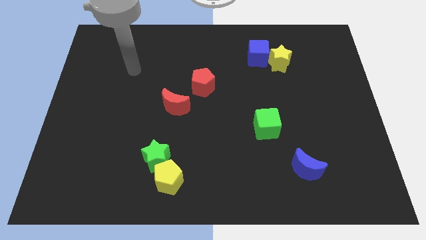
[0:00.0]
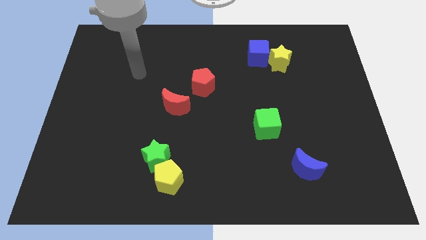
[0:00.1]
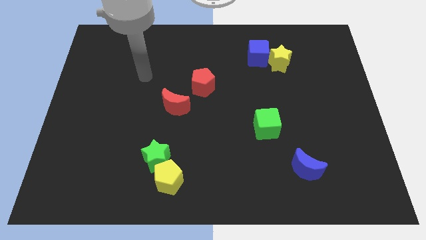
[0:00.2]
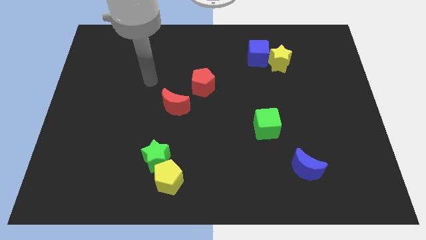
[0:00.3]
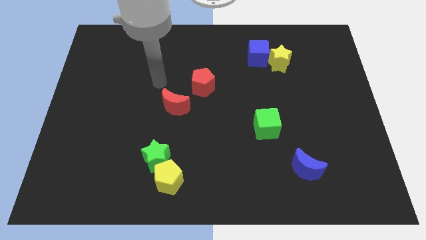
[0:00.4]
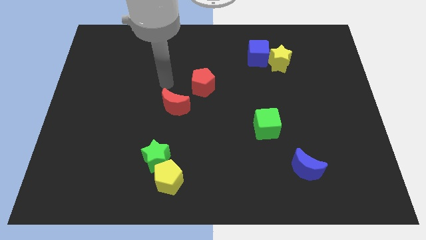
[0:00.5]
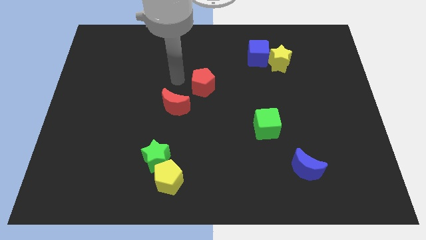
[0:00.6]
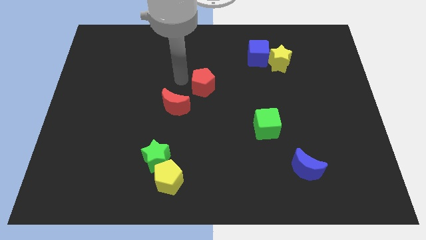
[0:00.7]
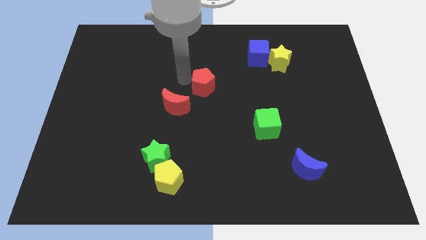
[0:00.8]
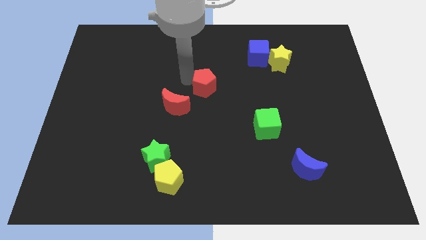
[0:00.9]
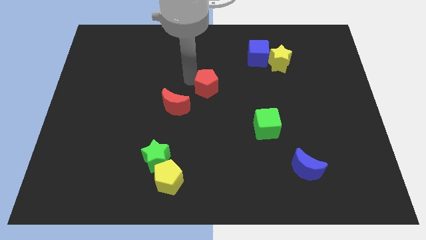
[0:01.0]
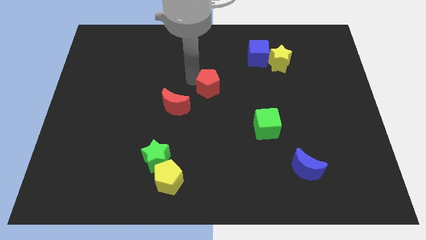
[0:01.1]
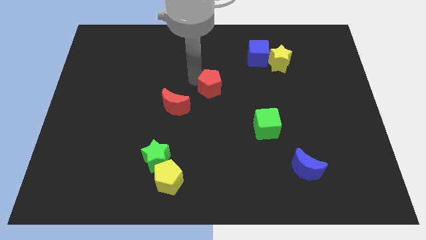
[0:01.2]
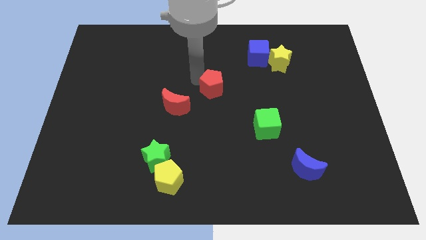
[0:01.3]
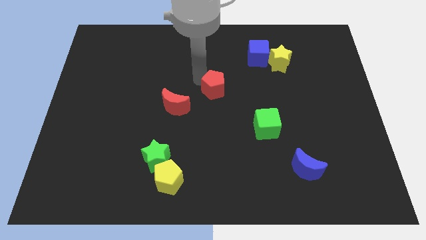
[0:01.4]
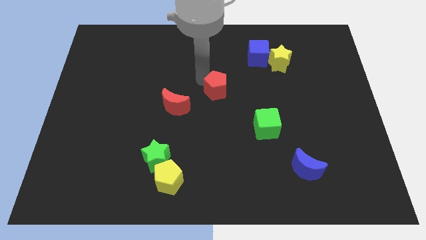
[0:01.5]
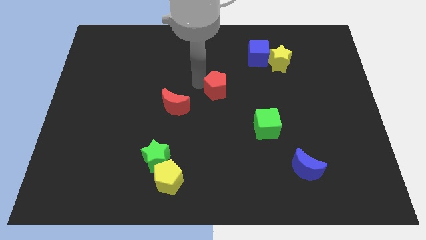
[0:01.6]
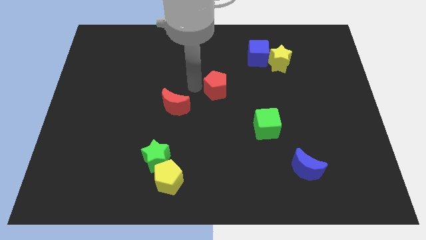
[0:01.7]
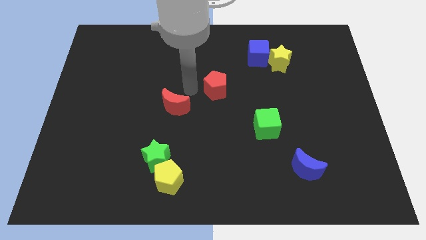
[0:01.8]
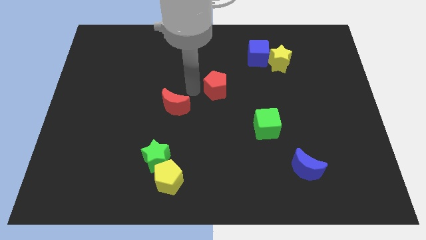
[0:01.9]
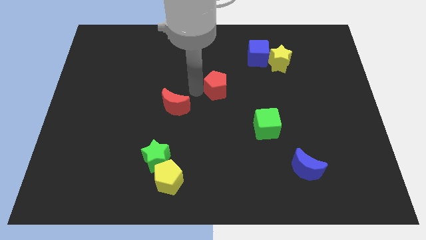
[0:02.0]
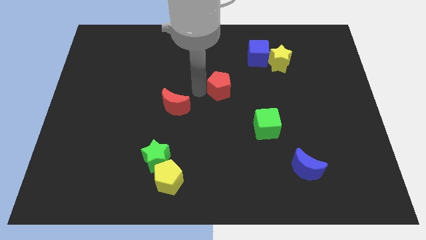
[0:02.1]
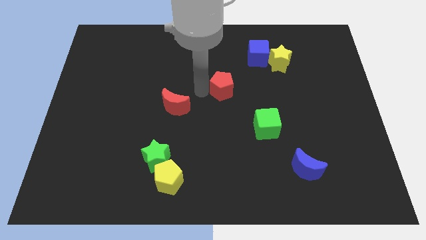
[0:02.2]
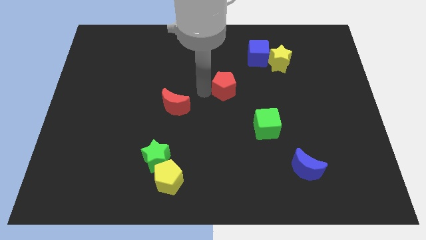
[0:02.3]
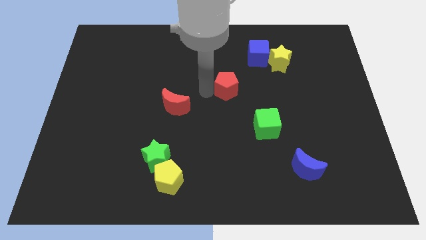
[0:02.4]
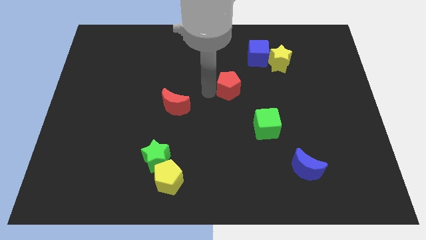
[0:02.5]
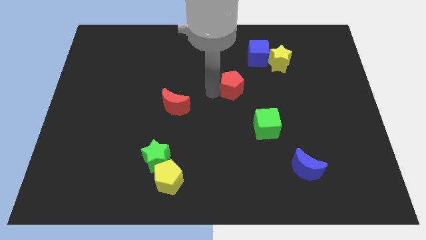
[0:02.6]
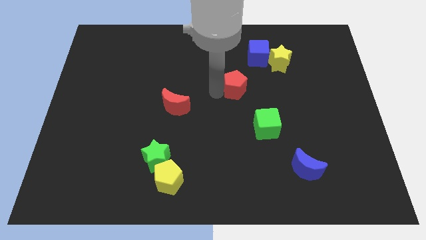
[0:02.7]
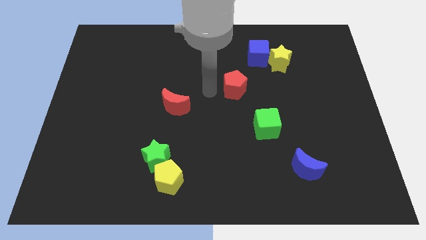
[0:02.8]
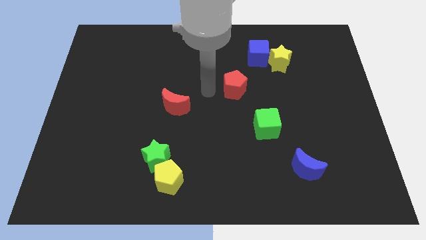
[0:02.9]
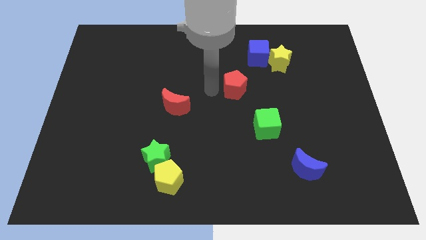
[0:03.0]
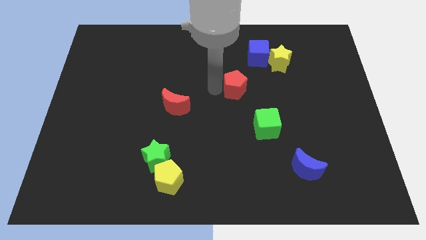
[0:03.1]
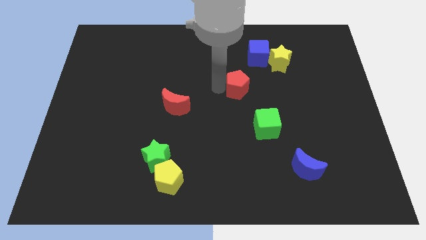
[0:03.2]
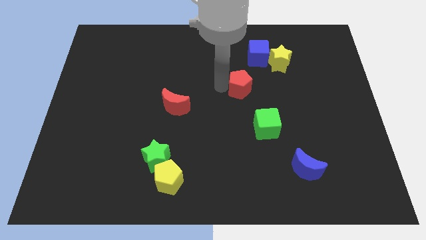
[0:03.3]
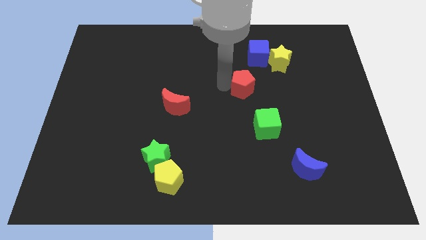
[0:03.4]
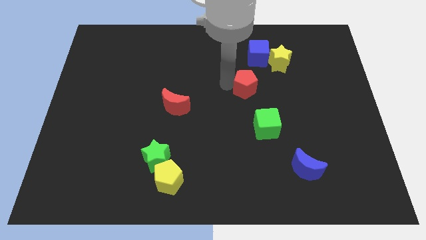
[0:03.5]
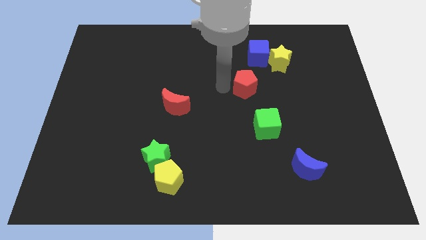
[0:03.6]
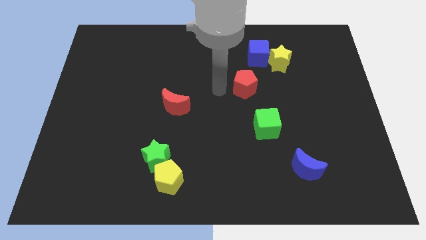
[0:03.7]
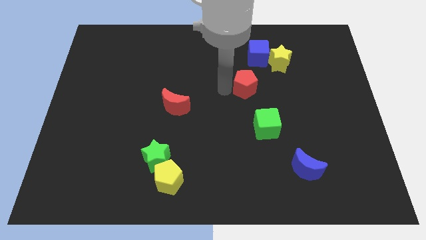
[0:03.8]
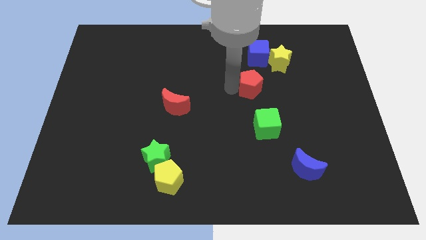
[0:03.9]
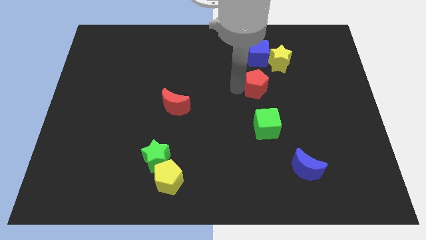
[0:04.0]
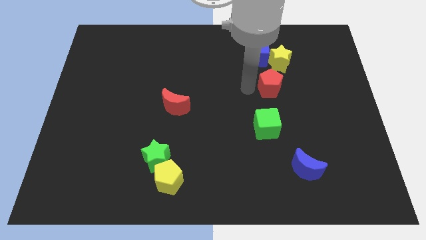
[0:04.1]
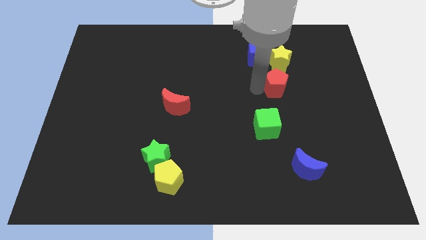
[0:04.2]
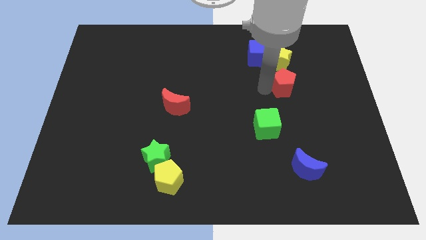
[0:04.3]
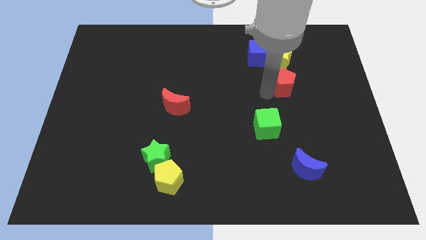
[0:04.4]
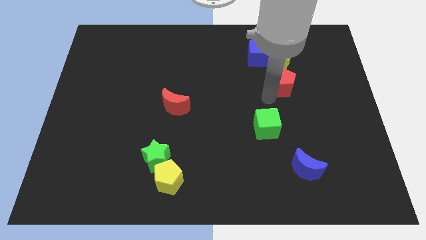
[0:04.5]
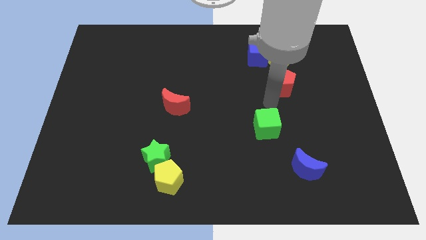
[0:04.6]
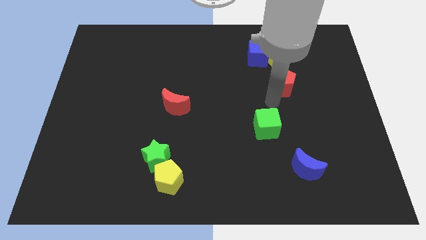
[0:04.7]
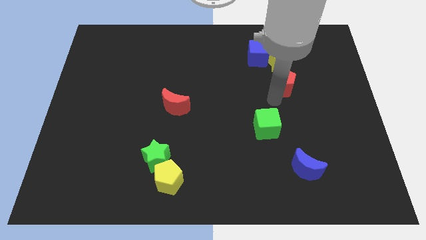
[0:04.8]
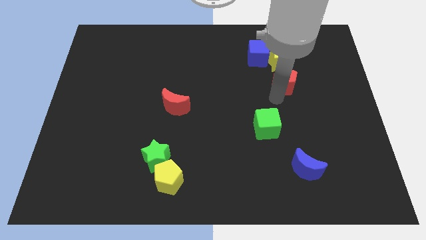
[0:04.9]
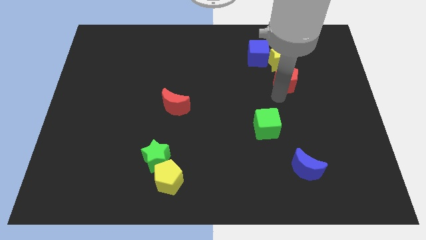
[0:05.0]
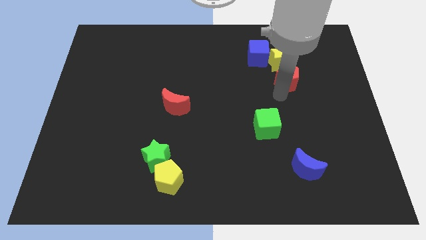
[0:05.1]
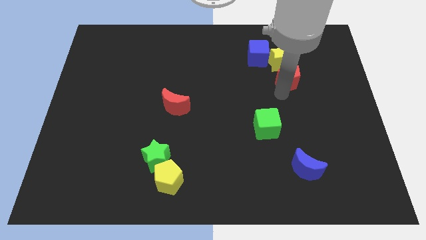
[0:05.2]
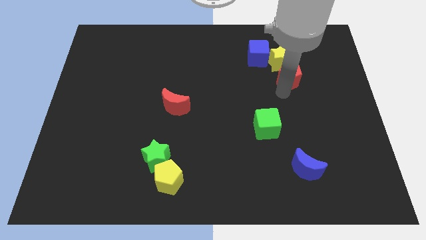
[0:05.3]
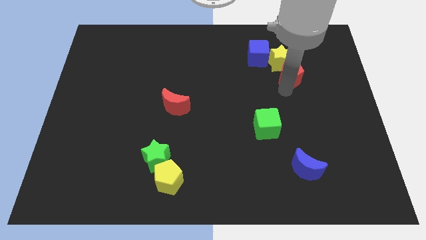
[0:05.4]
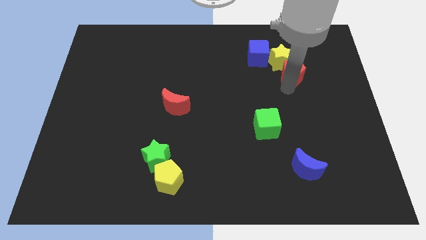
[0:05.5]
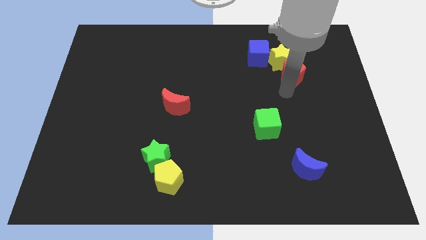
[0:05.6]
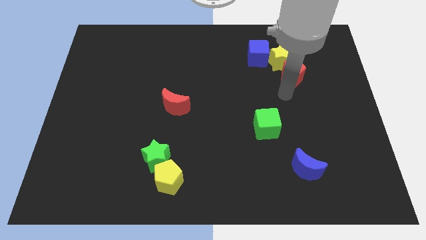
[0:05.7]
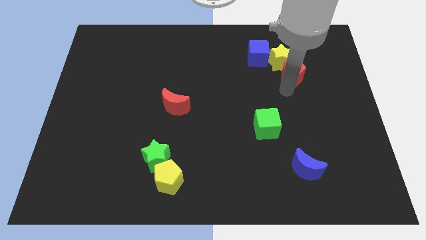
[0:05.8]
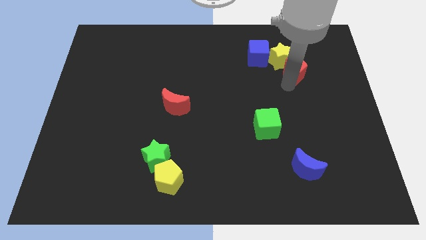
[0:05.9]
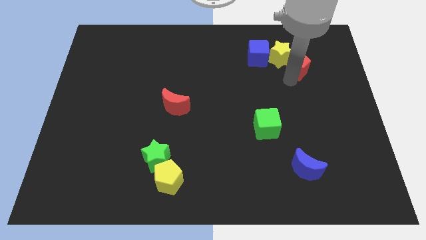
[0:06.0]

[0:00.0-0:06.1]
slide the red pentagon to the right side of the blue cube
